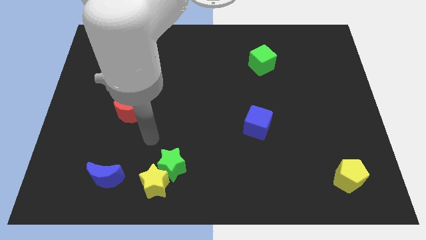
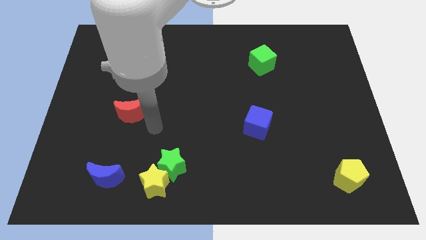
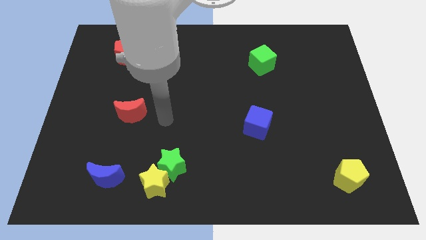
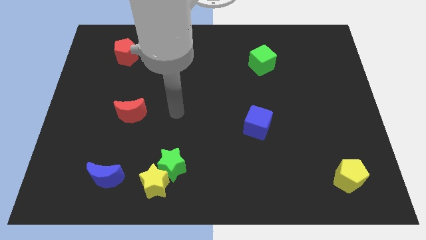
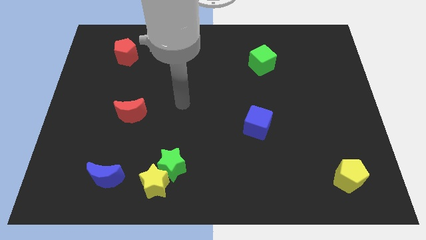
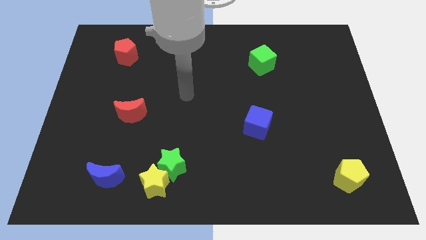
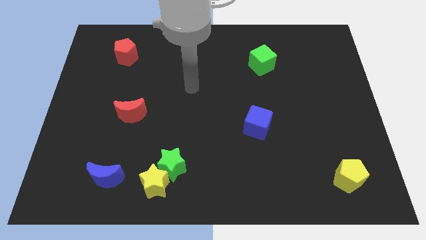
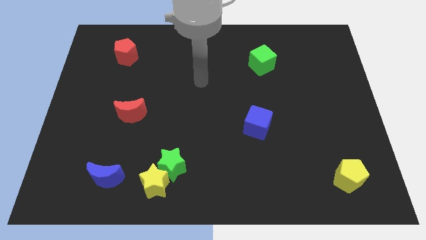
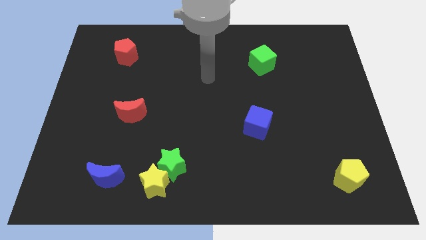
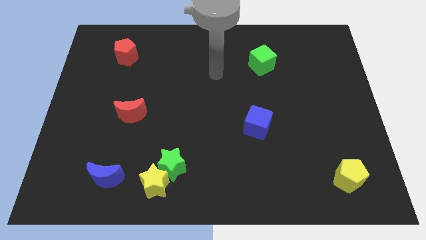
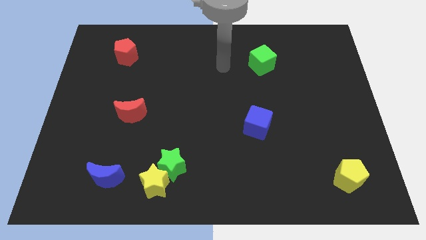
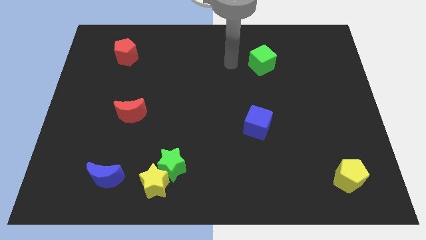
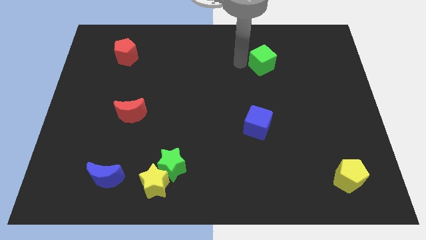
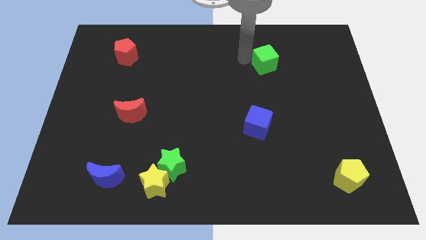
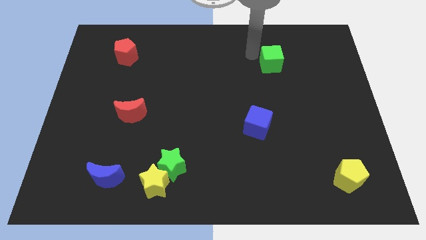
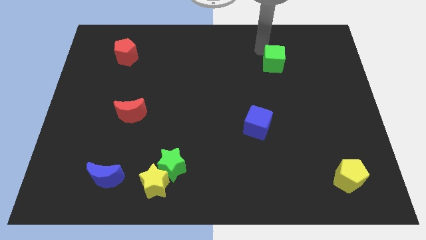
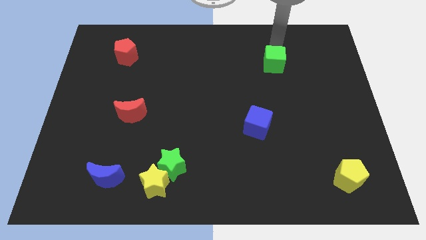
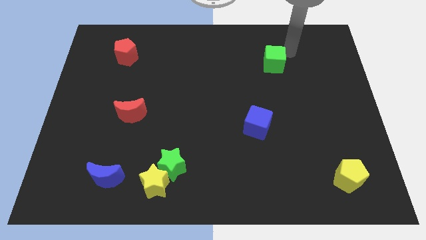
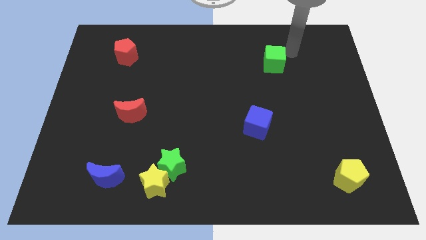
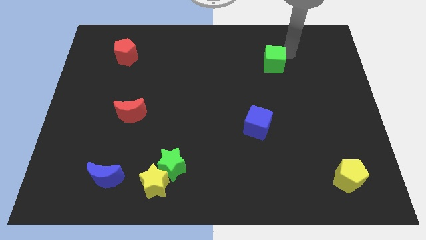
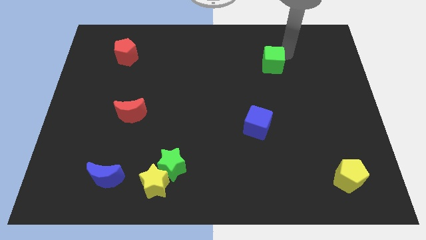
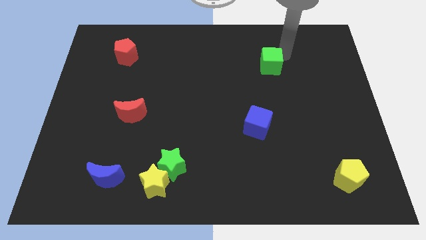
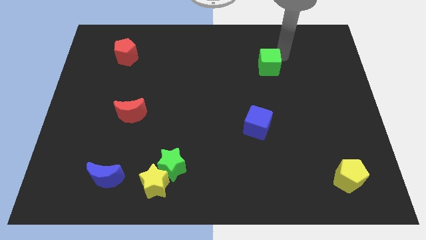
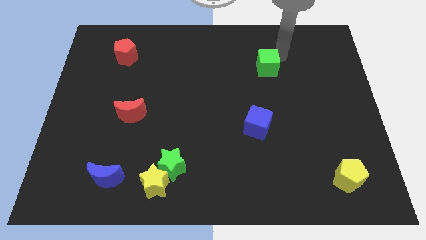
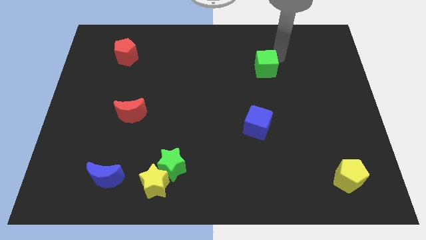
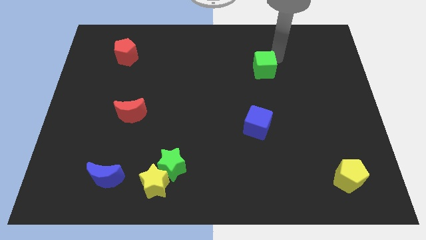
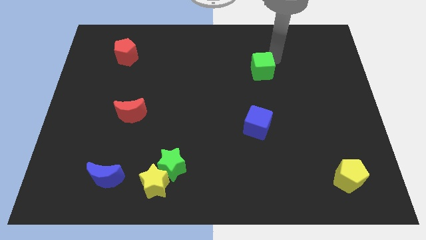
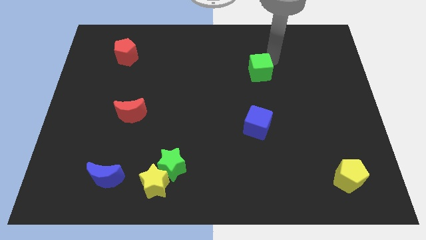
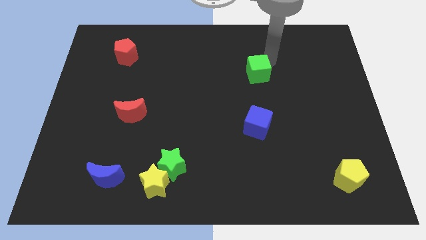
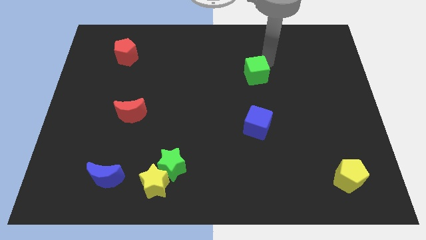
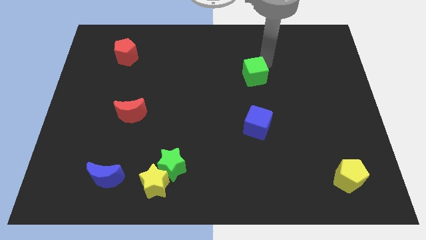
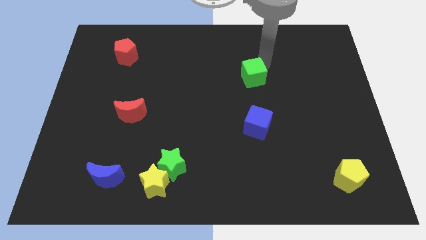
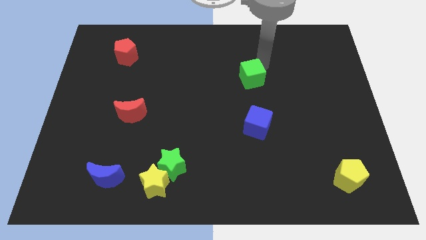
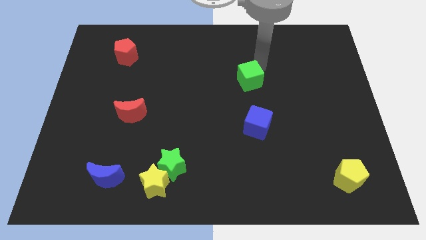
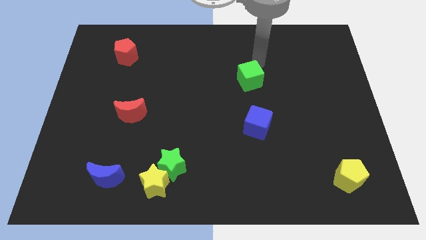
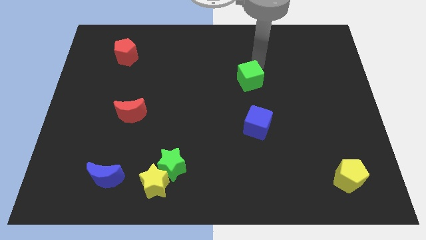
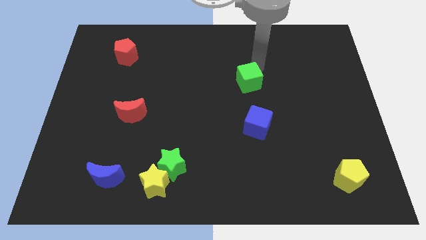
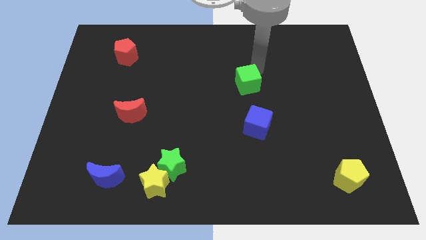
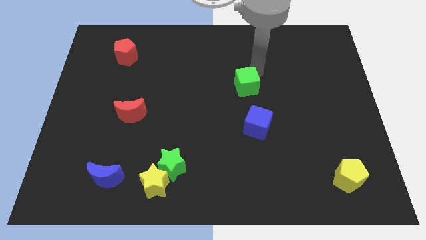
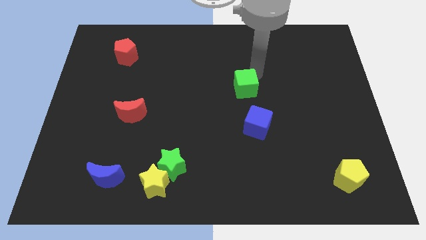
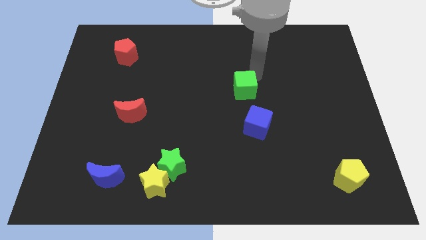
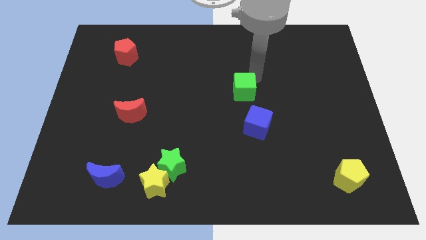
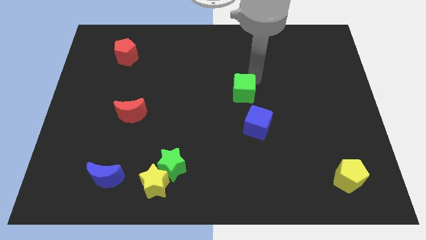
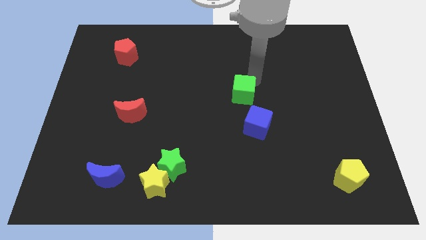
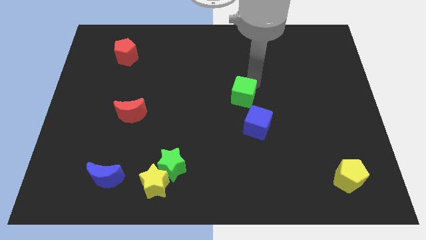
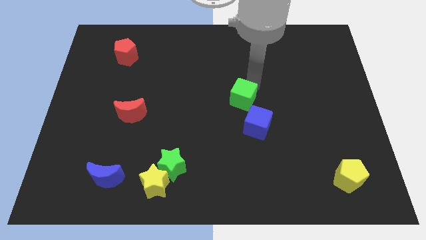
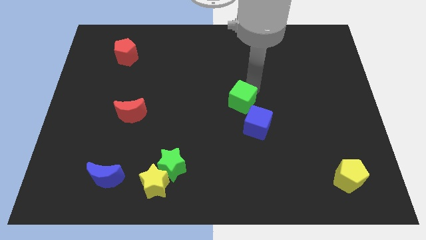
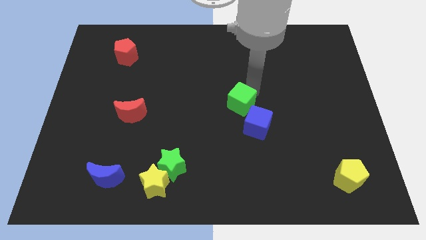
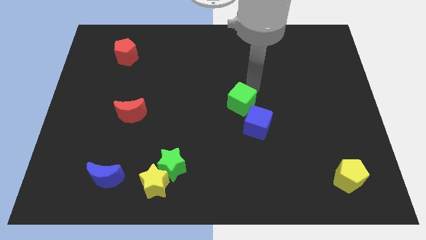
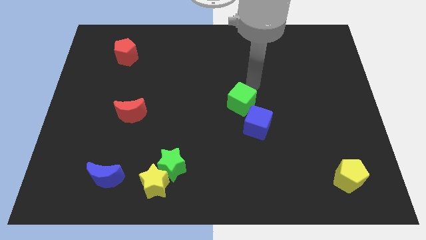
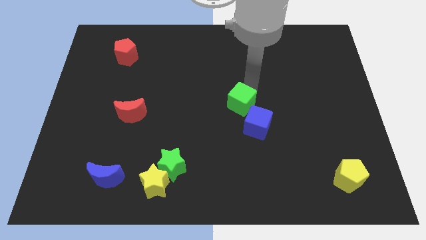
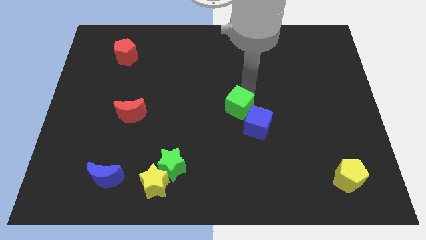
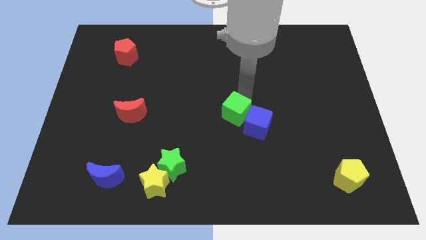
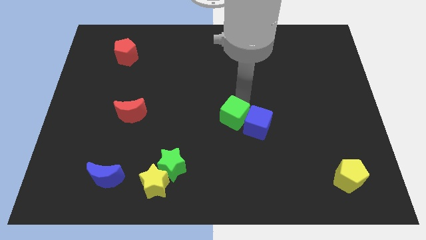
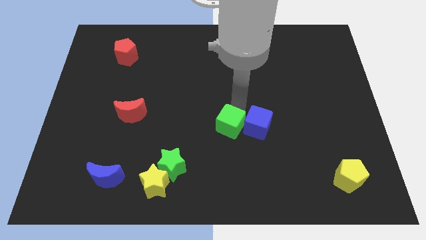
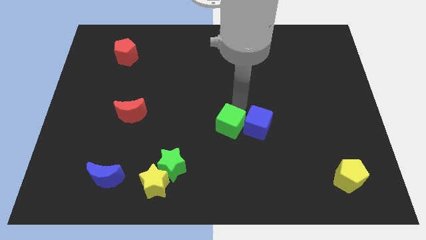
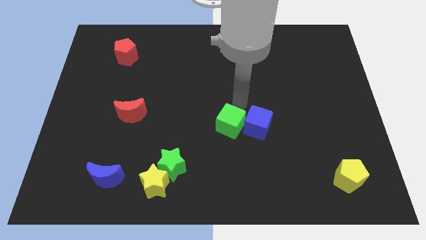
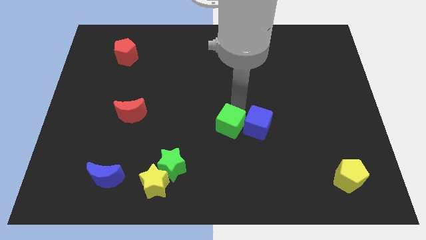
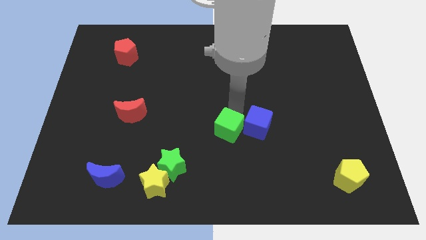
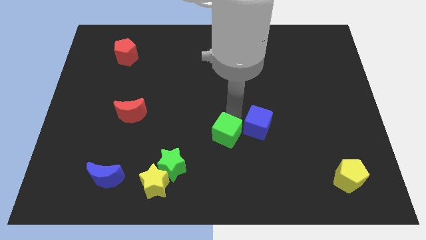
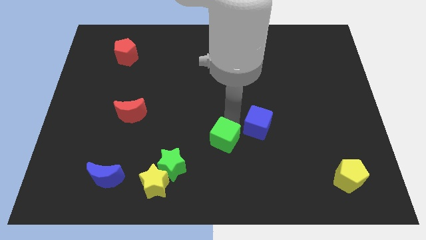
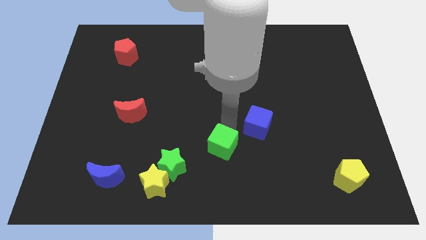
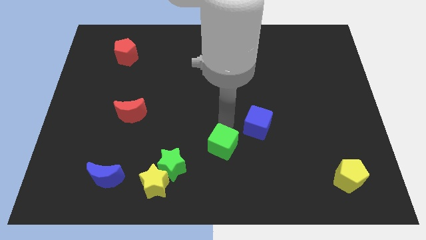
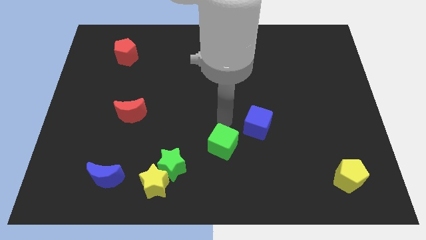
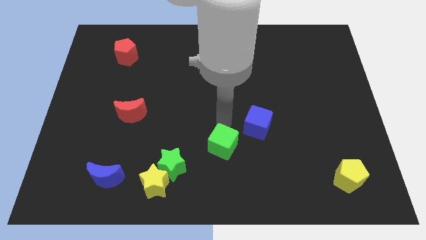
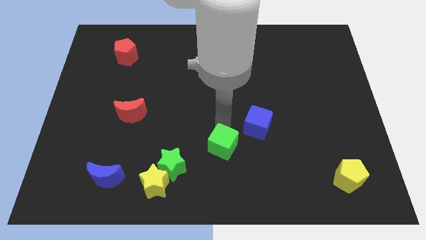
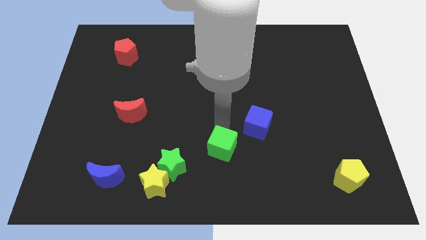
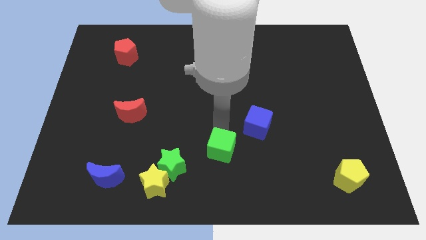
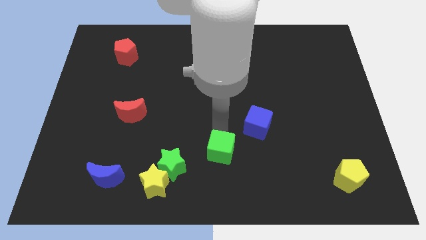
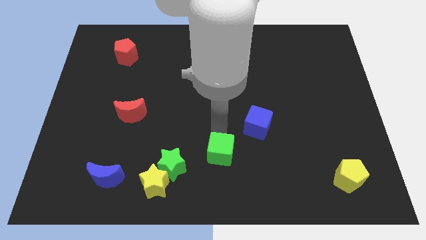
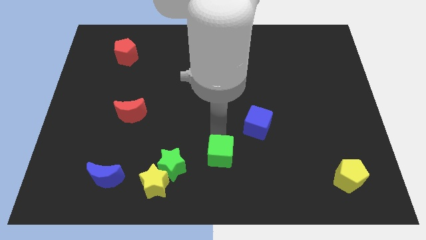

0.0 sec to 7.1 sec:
put the green cube to the bottom
